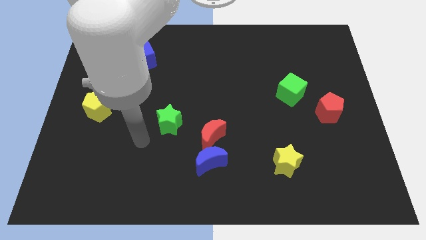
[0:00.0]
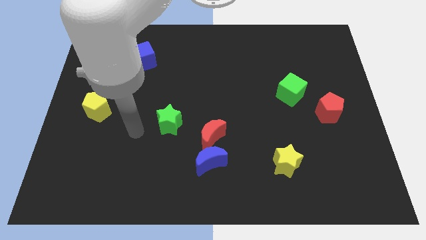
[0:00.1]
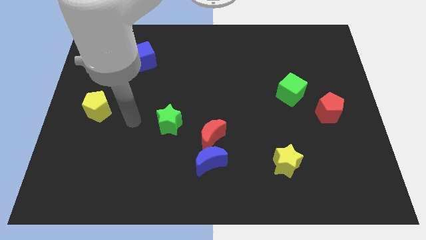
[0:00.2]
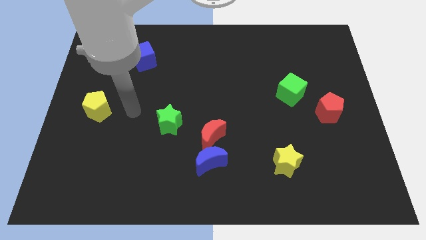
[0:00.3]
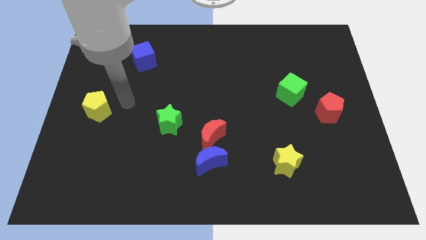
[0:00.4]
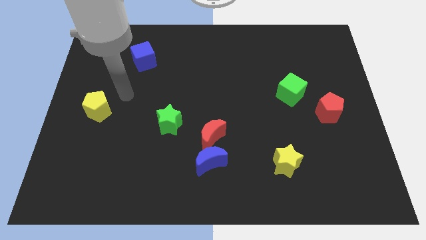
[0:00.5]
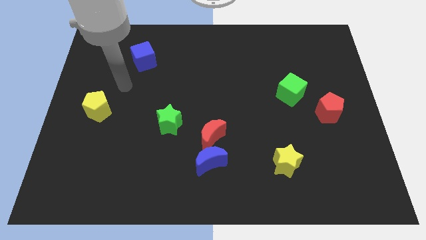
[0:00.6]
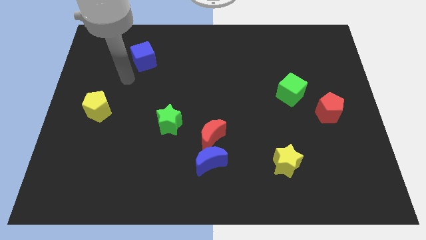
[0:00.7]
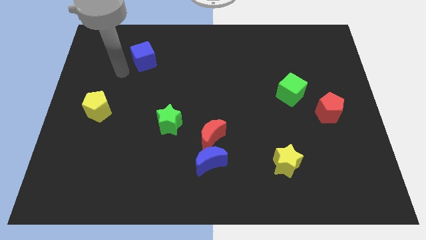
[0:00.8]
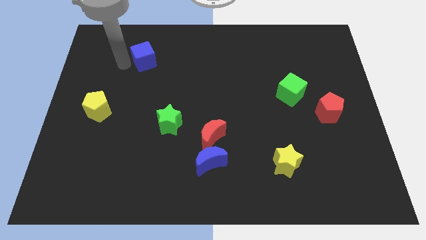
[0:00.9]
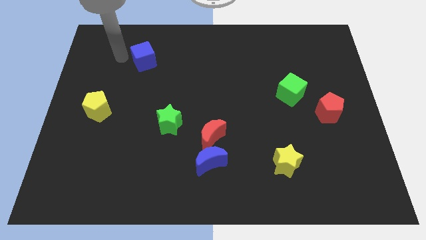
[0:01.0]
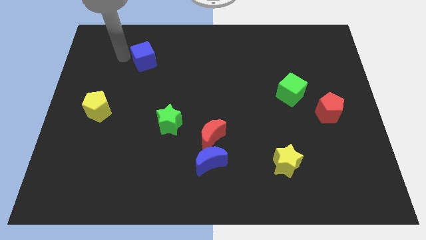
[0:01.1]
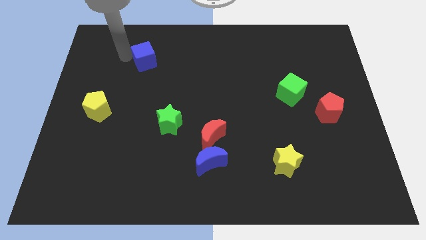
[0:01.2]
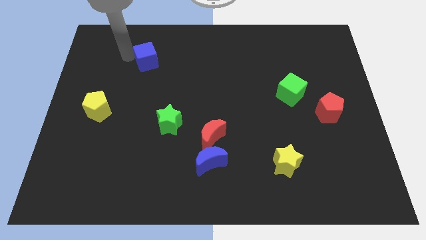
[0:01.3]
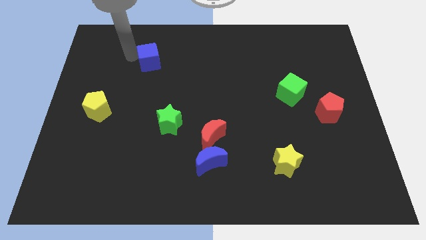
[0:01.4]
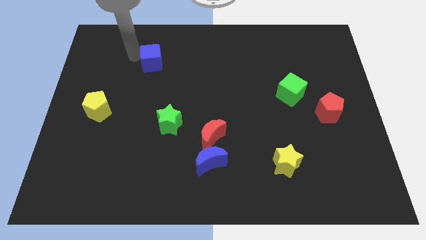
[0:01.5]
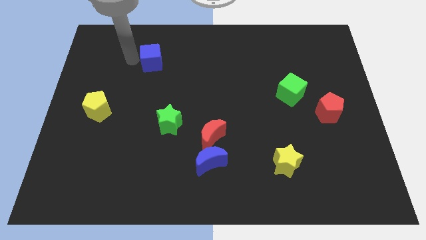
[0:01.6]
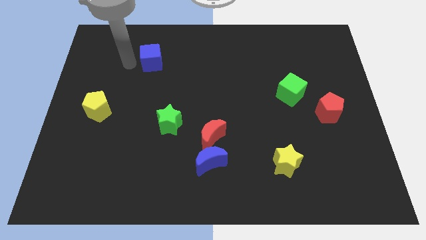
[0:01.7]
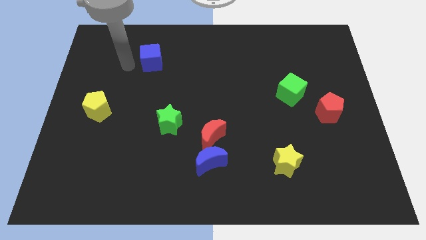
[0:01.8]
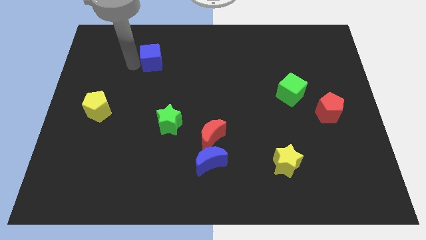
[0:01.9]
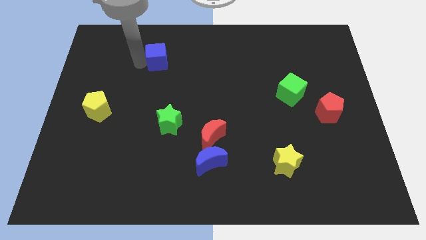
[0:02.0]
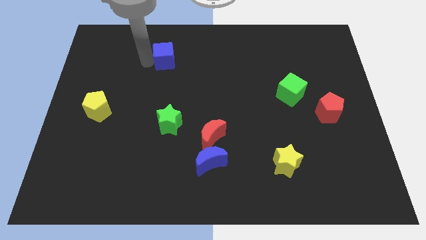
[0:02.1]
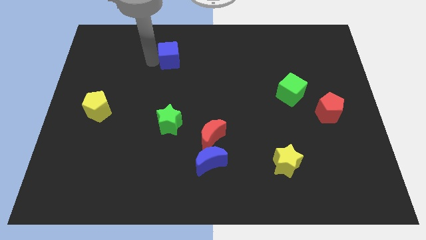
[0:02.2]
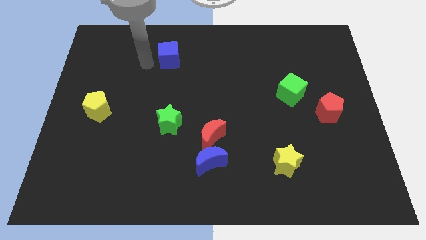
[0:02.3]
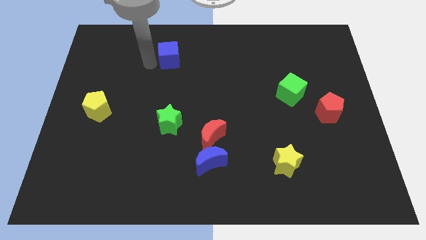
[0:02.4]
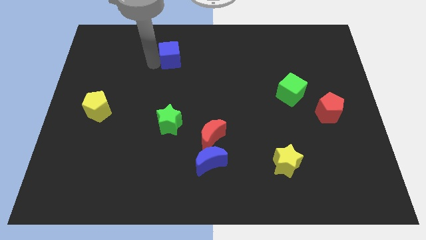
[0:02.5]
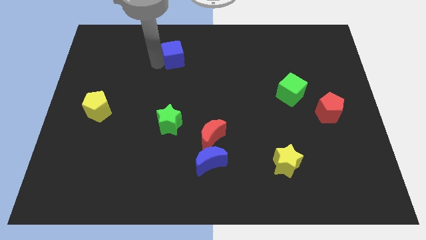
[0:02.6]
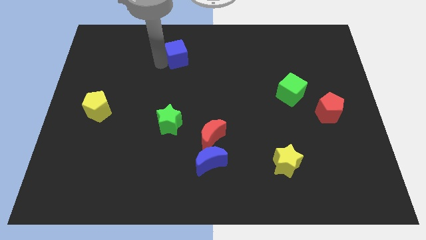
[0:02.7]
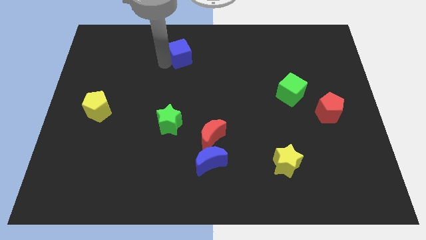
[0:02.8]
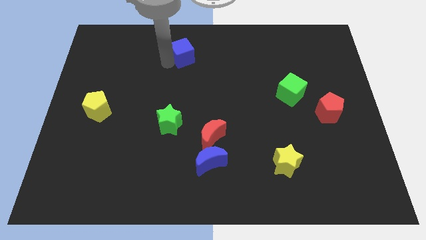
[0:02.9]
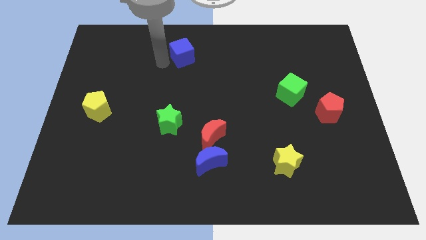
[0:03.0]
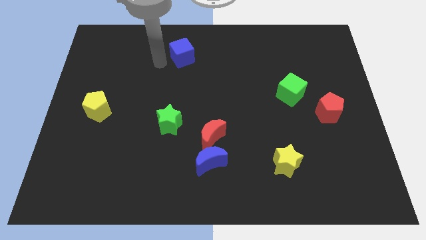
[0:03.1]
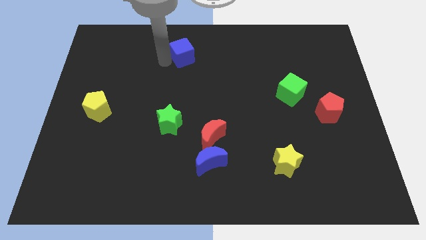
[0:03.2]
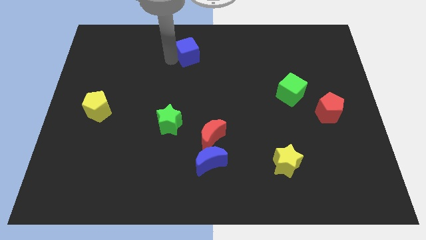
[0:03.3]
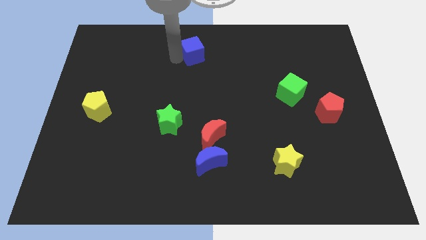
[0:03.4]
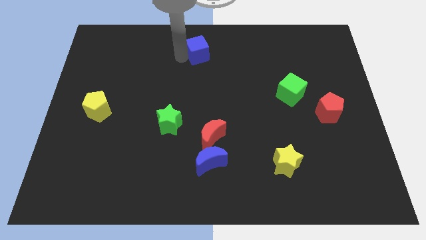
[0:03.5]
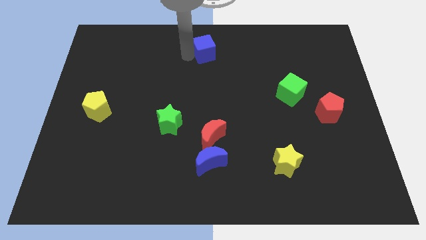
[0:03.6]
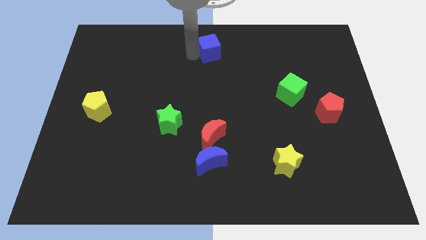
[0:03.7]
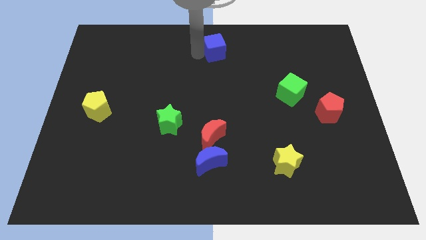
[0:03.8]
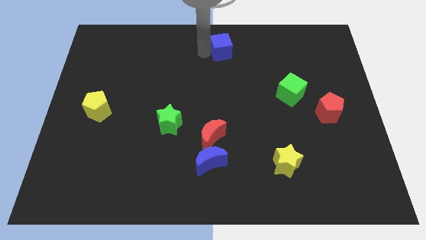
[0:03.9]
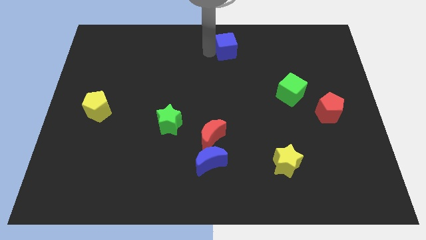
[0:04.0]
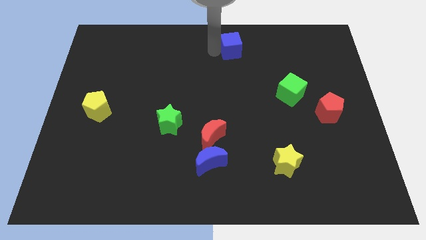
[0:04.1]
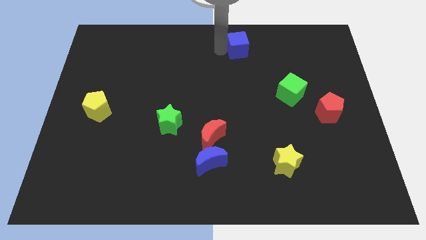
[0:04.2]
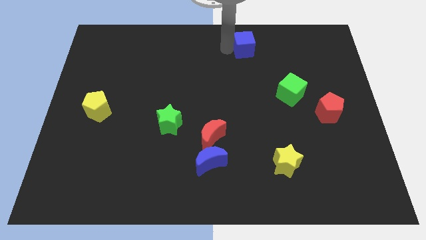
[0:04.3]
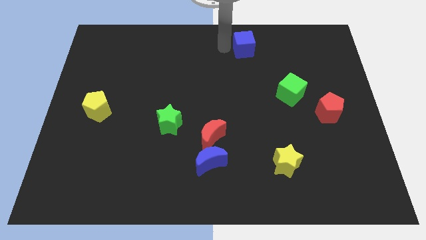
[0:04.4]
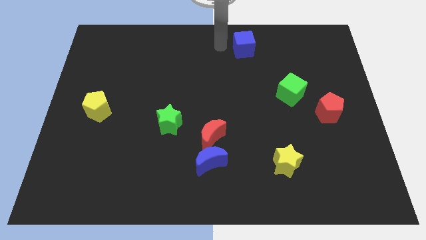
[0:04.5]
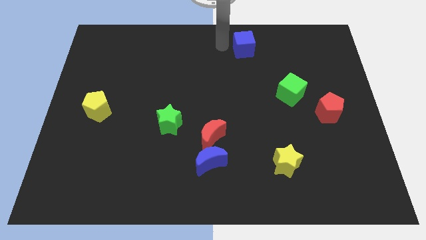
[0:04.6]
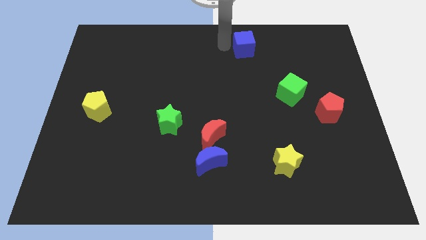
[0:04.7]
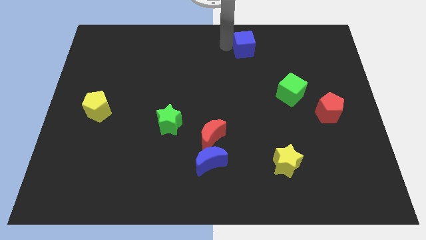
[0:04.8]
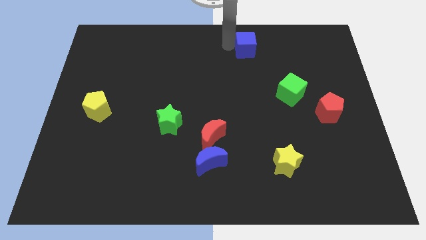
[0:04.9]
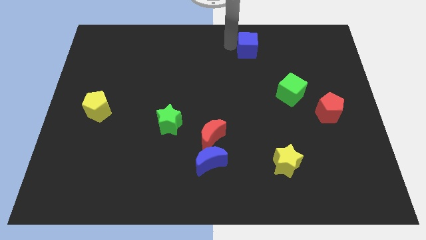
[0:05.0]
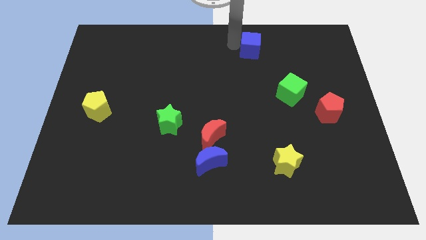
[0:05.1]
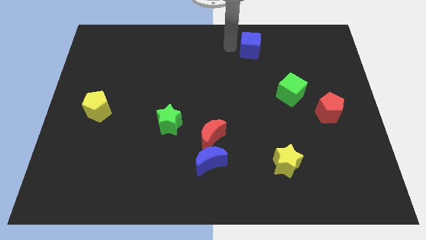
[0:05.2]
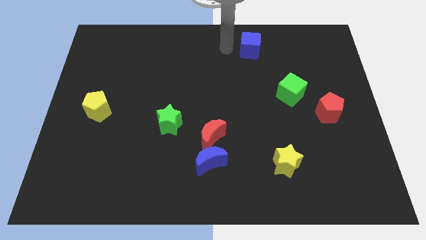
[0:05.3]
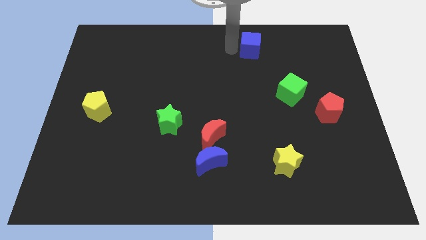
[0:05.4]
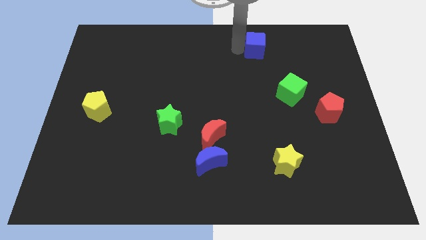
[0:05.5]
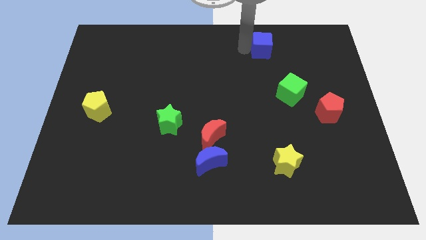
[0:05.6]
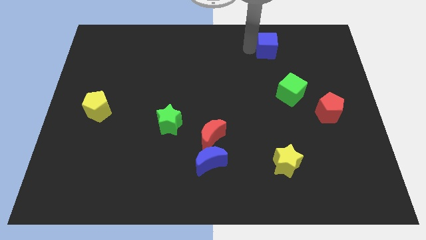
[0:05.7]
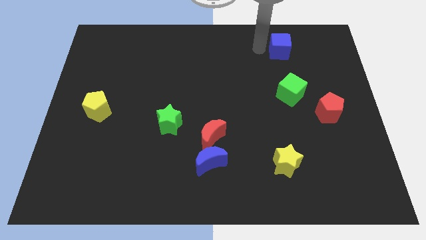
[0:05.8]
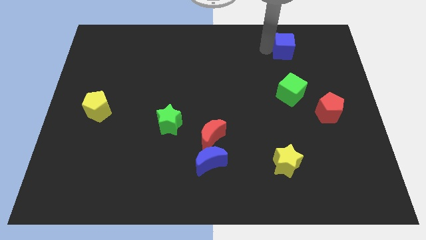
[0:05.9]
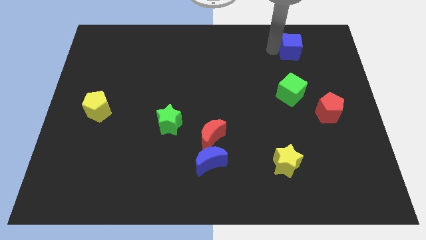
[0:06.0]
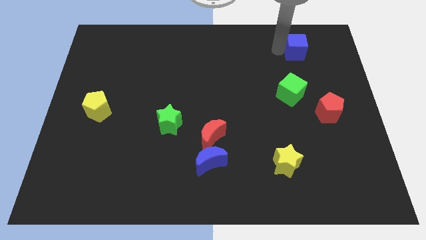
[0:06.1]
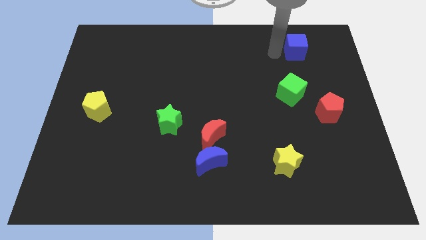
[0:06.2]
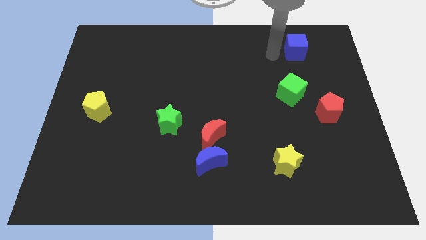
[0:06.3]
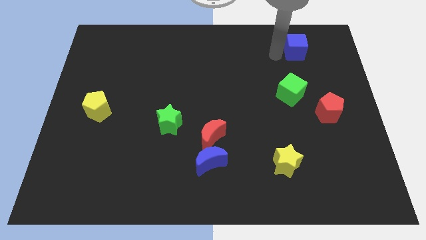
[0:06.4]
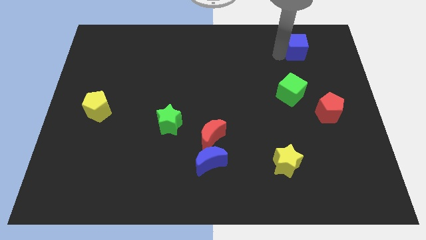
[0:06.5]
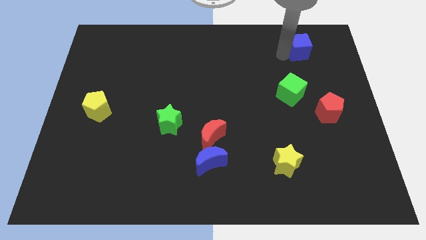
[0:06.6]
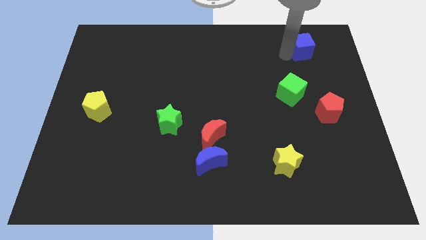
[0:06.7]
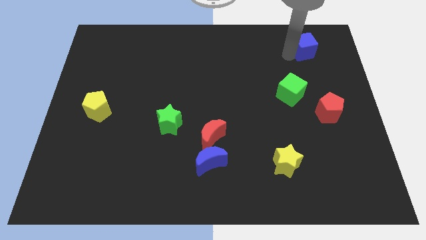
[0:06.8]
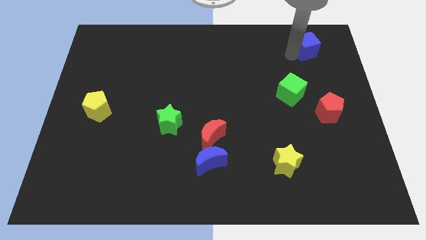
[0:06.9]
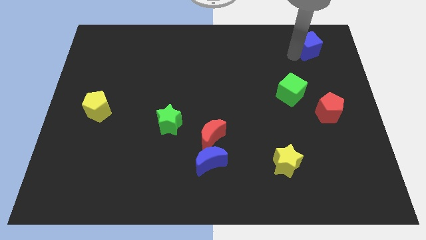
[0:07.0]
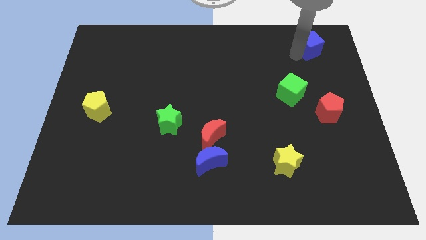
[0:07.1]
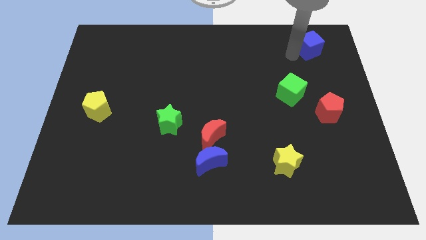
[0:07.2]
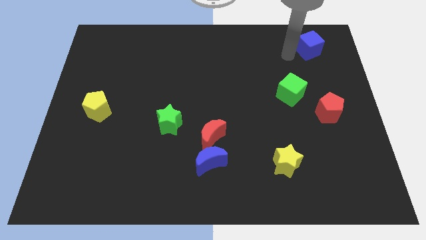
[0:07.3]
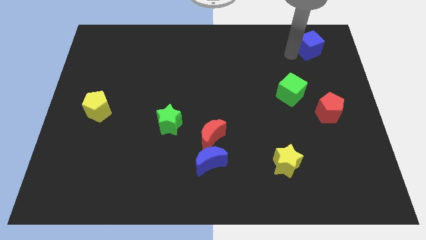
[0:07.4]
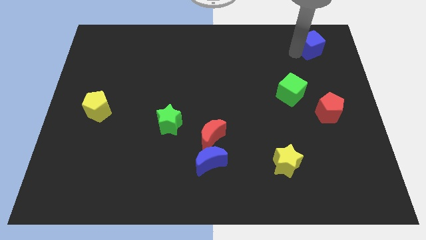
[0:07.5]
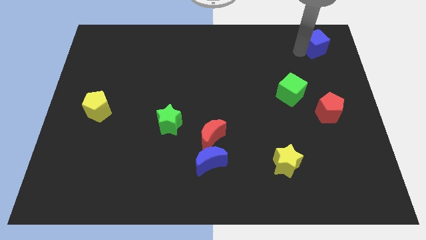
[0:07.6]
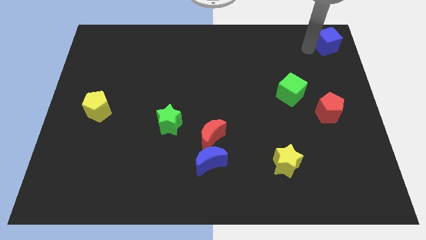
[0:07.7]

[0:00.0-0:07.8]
slide the blue cube to the top right corner
